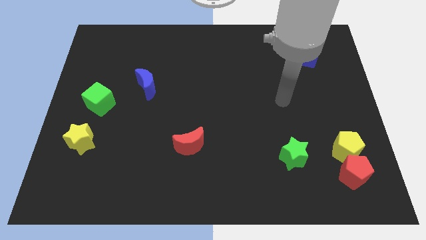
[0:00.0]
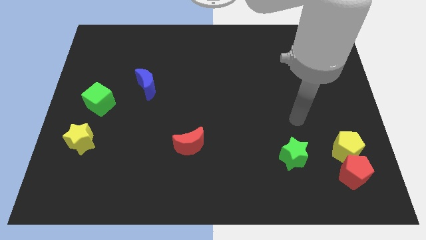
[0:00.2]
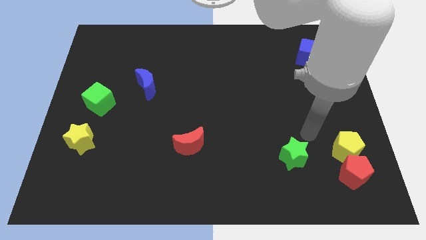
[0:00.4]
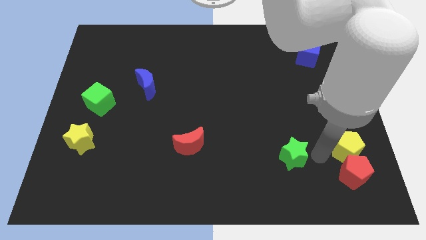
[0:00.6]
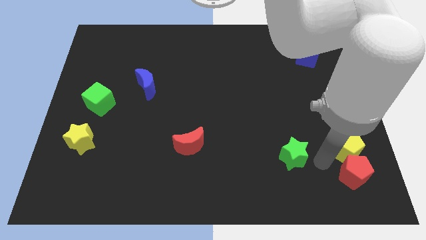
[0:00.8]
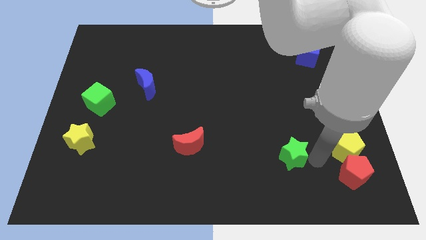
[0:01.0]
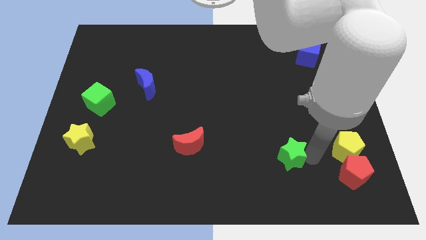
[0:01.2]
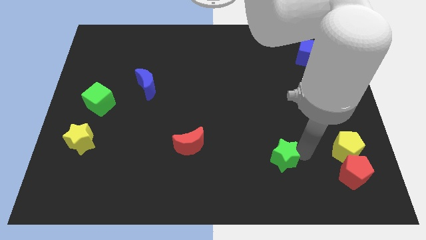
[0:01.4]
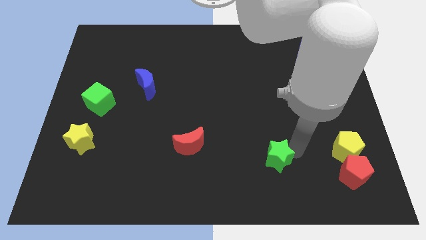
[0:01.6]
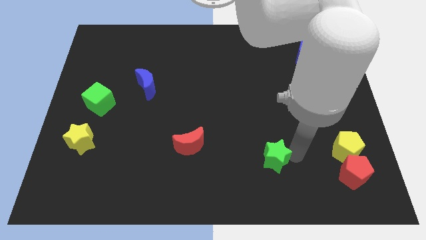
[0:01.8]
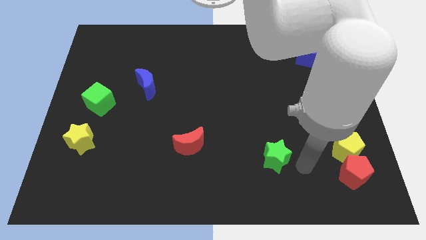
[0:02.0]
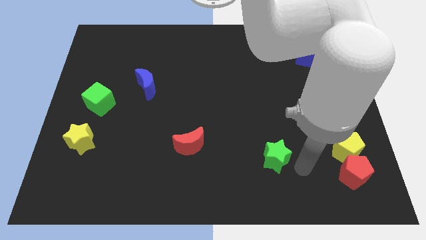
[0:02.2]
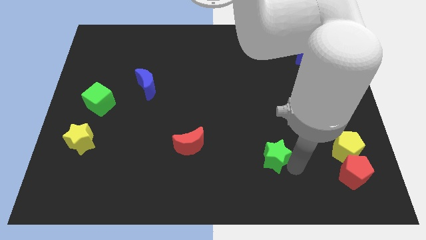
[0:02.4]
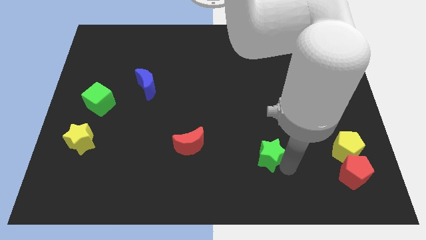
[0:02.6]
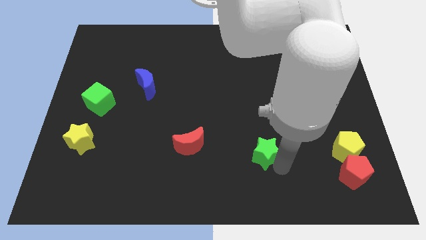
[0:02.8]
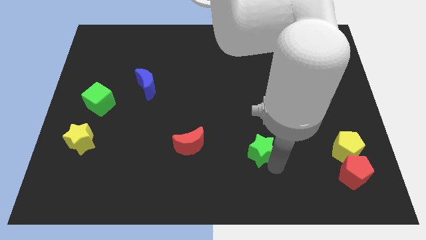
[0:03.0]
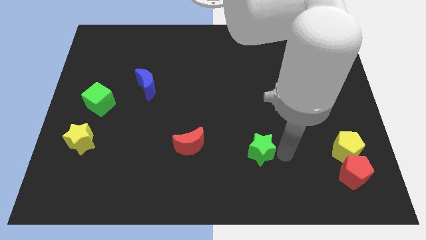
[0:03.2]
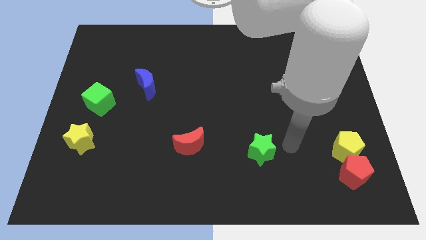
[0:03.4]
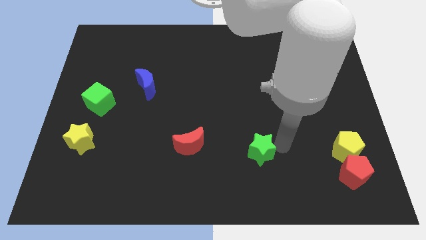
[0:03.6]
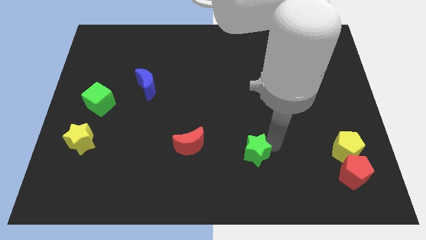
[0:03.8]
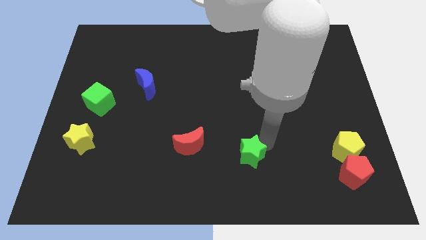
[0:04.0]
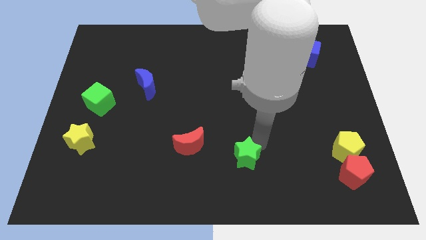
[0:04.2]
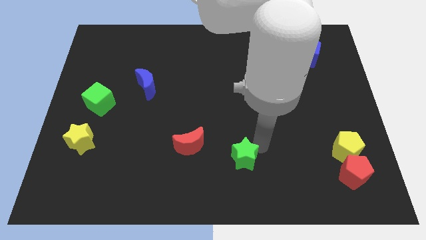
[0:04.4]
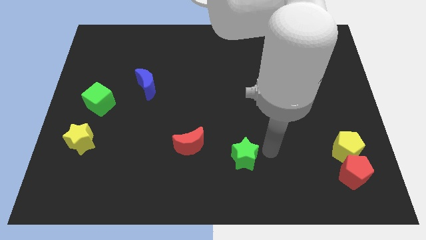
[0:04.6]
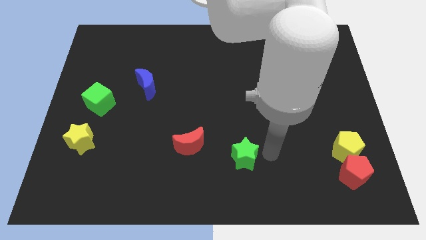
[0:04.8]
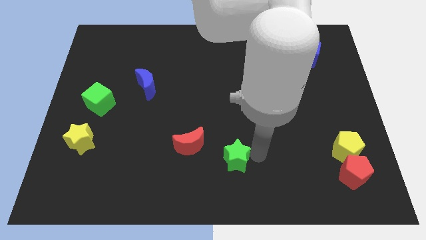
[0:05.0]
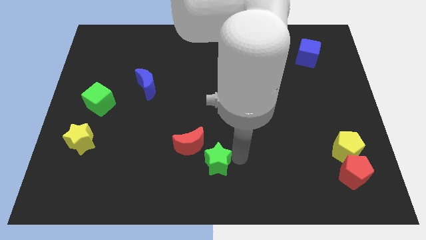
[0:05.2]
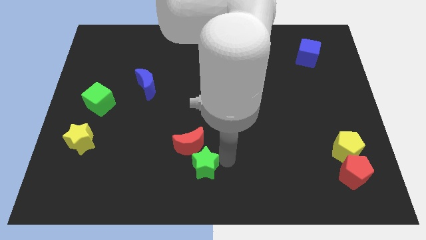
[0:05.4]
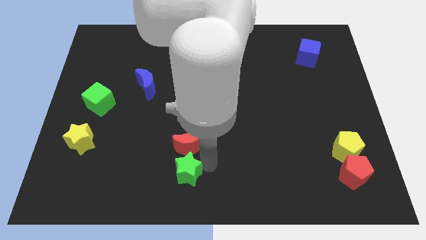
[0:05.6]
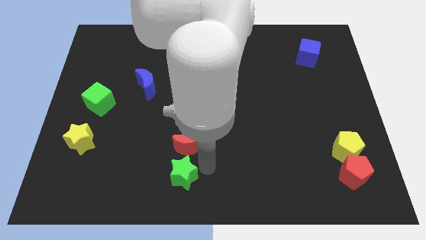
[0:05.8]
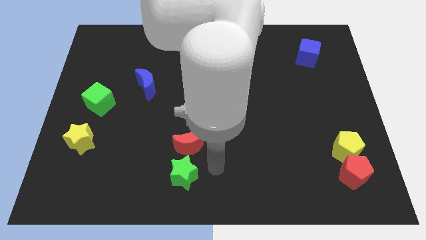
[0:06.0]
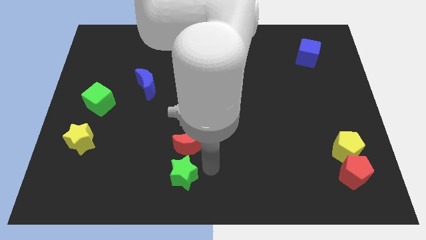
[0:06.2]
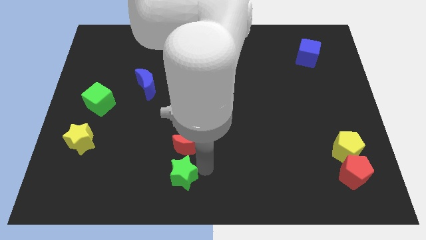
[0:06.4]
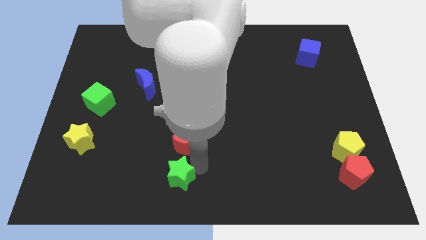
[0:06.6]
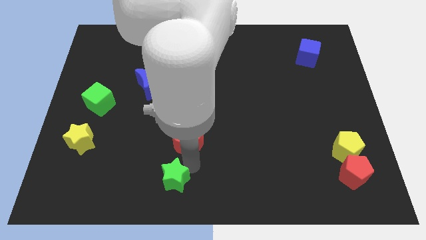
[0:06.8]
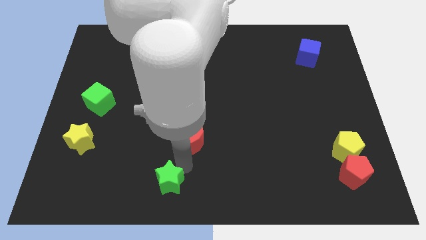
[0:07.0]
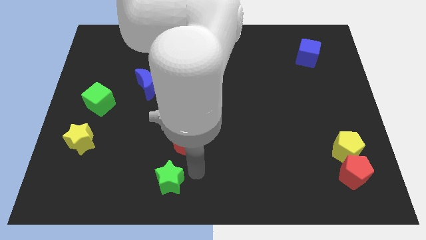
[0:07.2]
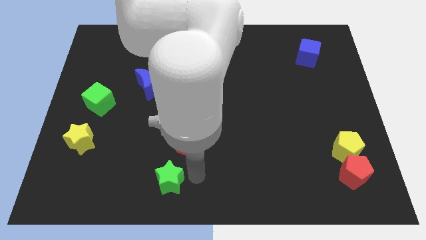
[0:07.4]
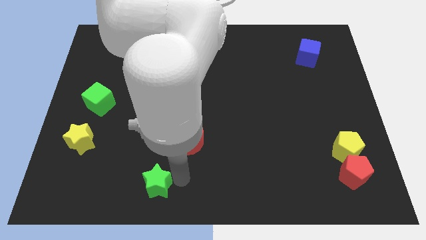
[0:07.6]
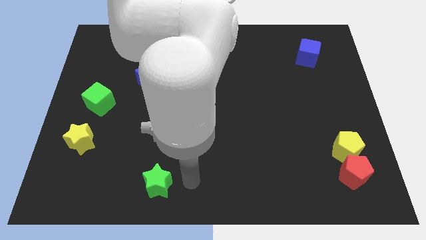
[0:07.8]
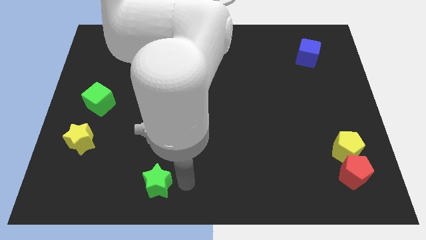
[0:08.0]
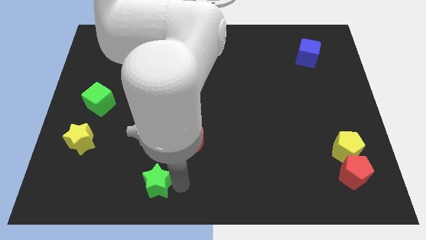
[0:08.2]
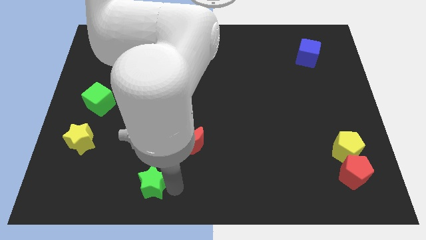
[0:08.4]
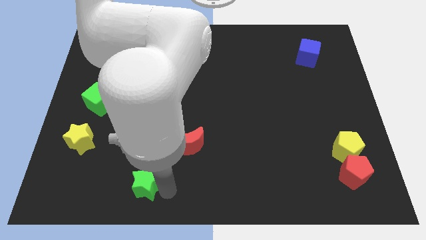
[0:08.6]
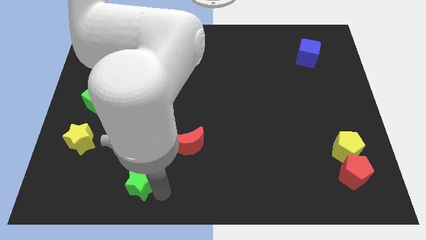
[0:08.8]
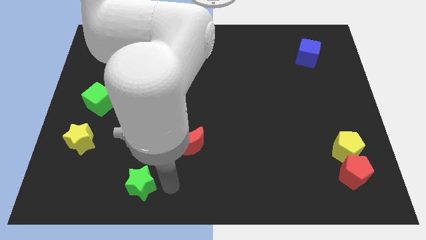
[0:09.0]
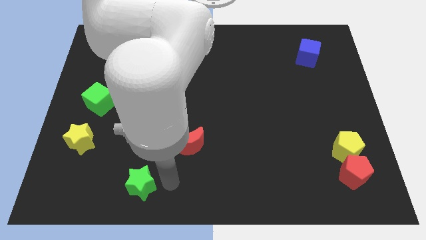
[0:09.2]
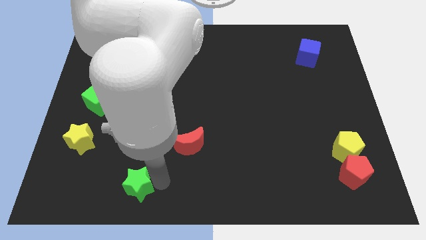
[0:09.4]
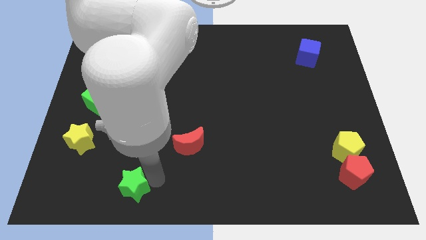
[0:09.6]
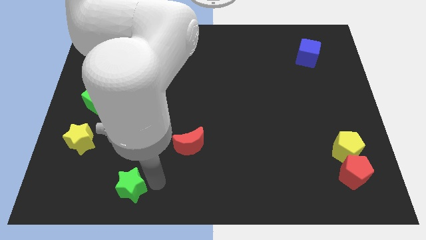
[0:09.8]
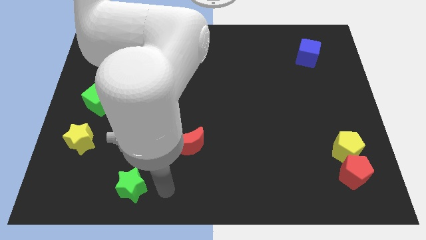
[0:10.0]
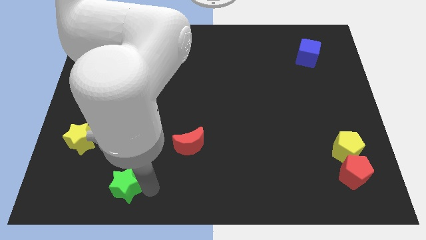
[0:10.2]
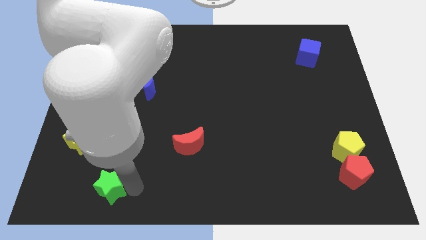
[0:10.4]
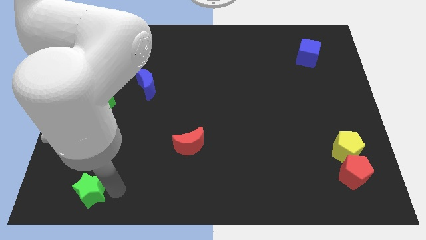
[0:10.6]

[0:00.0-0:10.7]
slide the green star to the bottom of the yellow star
